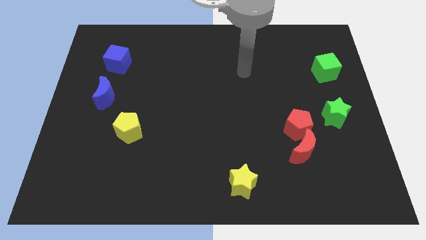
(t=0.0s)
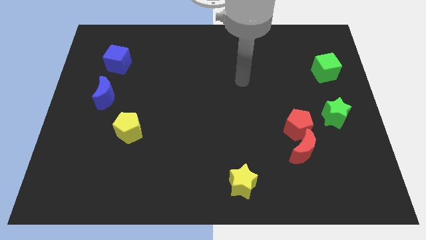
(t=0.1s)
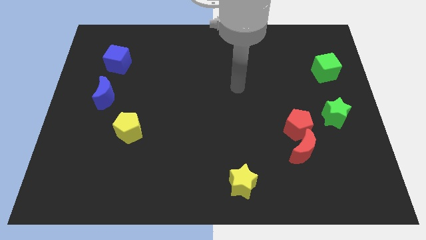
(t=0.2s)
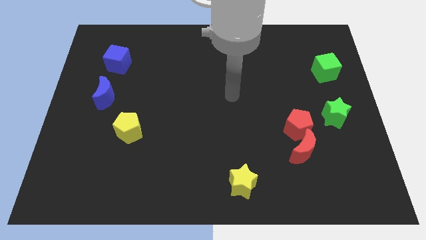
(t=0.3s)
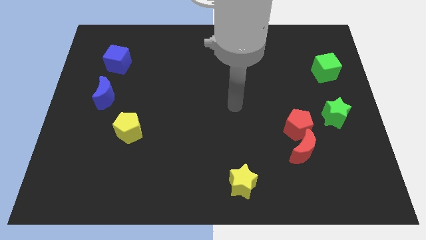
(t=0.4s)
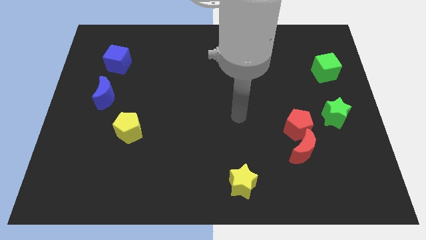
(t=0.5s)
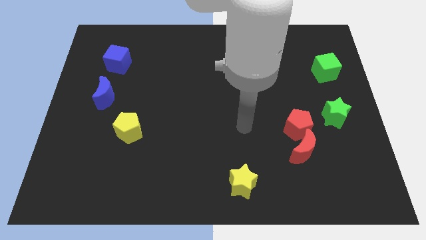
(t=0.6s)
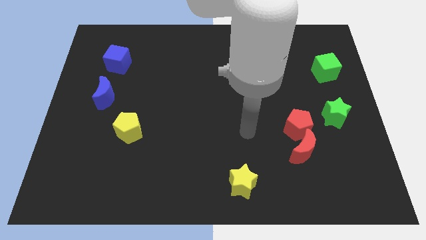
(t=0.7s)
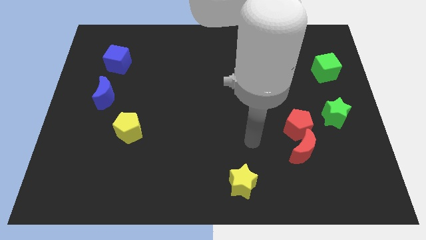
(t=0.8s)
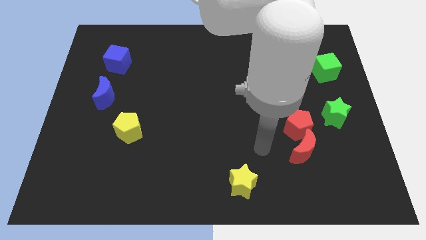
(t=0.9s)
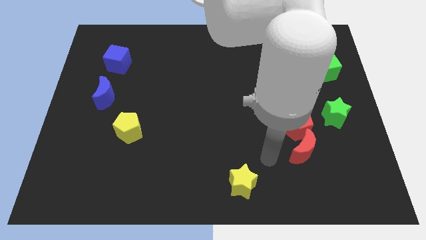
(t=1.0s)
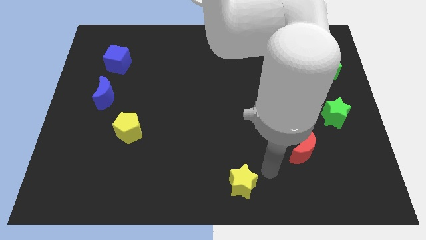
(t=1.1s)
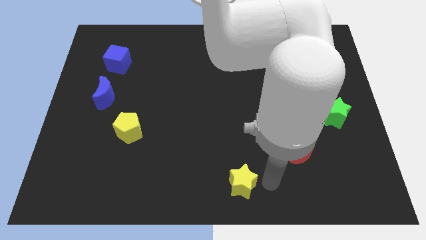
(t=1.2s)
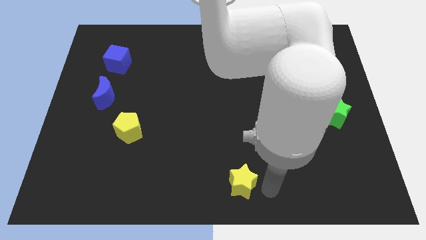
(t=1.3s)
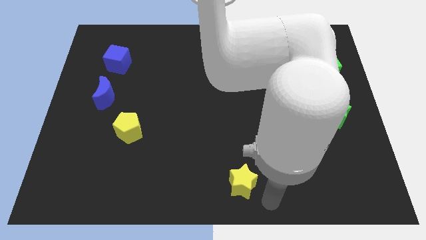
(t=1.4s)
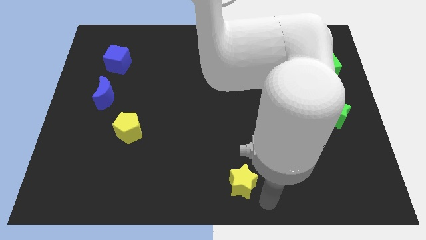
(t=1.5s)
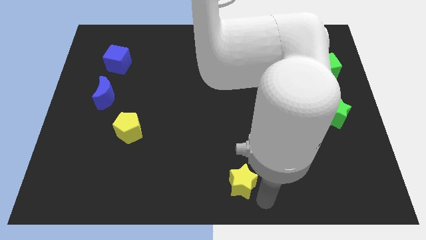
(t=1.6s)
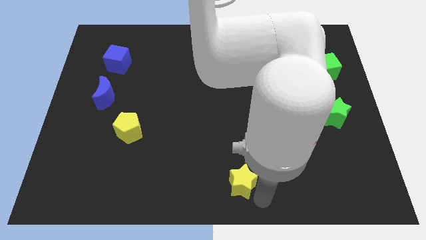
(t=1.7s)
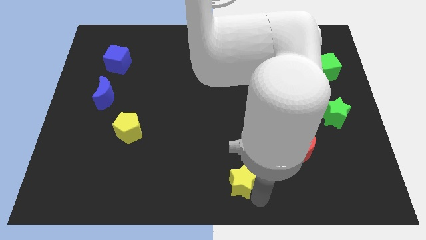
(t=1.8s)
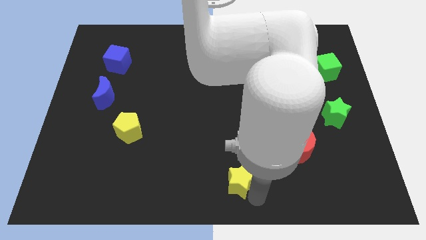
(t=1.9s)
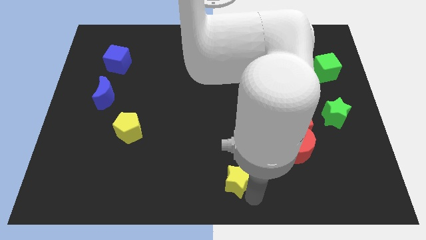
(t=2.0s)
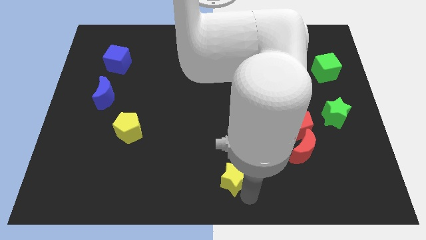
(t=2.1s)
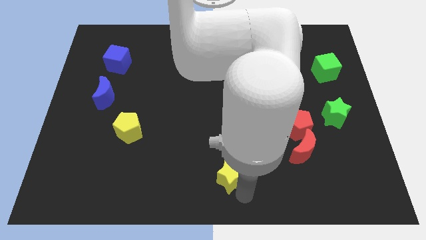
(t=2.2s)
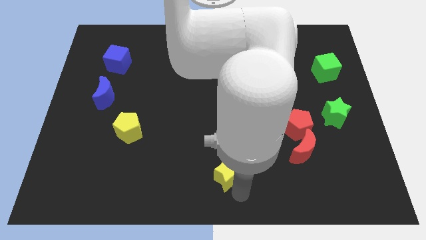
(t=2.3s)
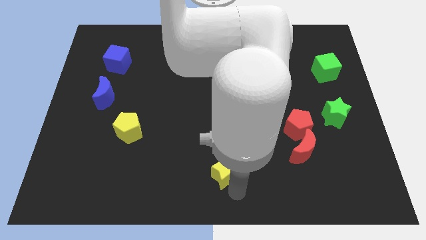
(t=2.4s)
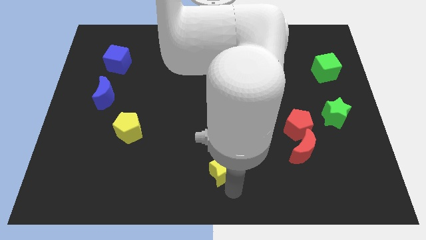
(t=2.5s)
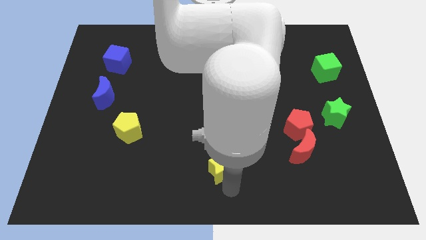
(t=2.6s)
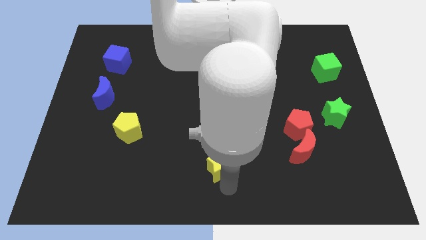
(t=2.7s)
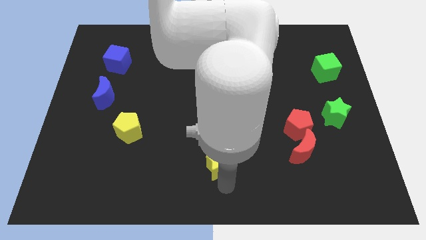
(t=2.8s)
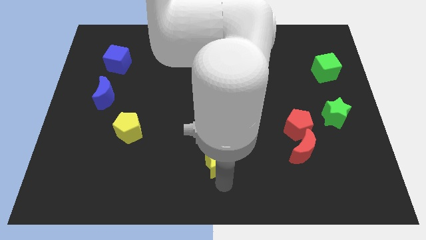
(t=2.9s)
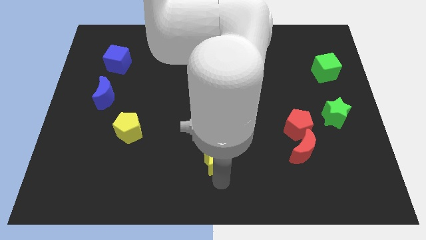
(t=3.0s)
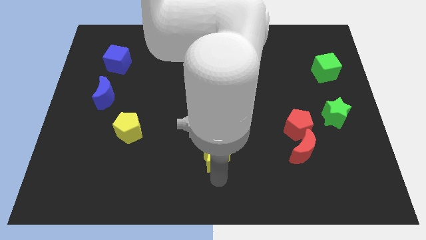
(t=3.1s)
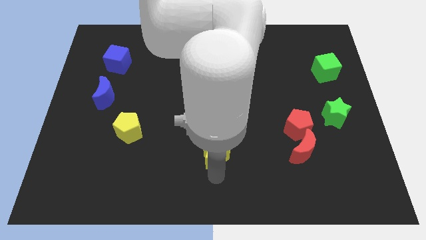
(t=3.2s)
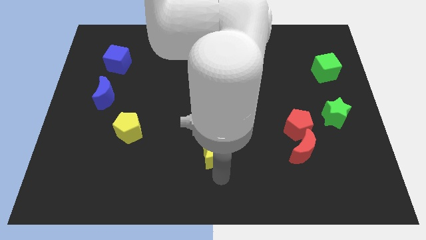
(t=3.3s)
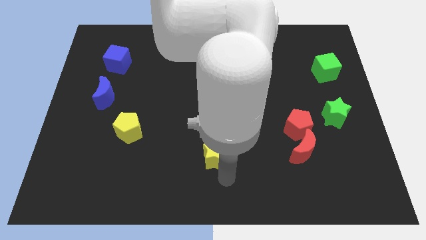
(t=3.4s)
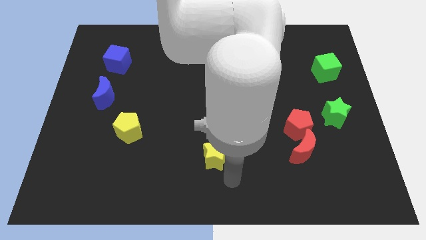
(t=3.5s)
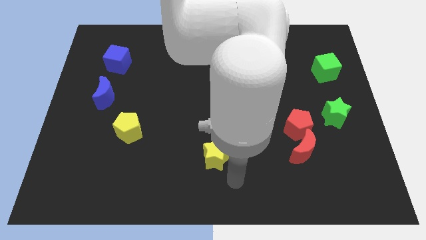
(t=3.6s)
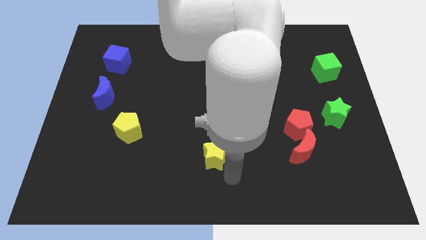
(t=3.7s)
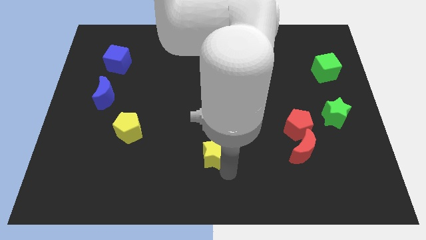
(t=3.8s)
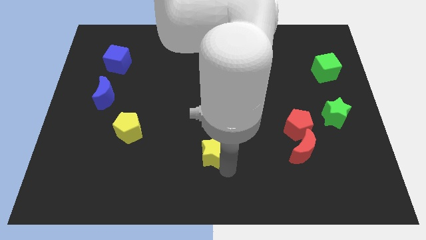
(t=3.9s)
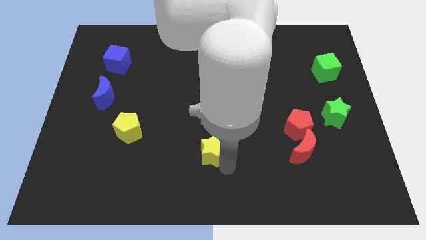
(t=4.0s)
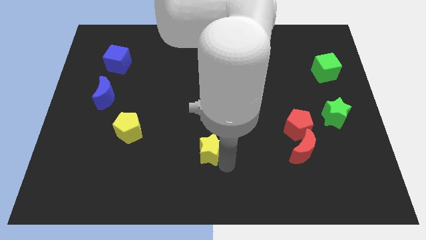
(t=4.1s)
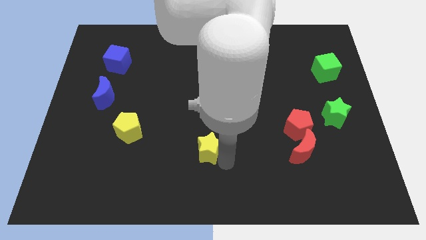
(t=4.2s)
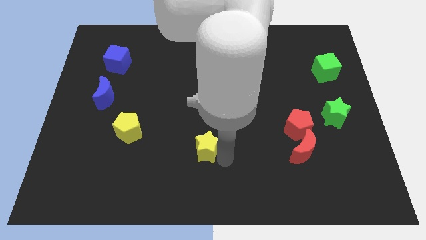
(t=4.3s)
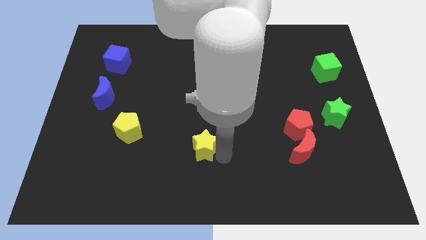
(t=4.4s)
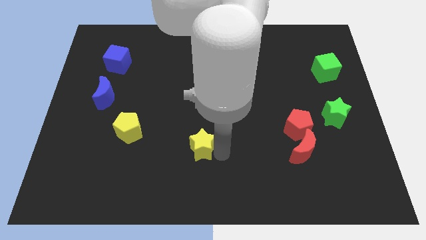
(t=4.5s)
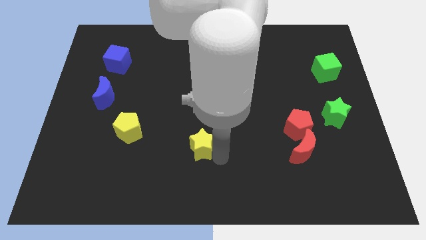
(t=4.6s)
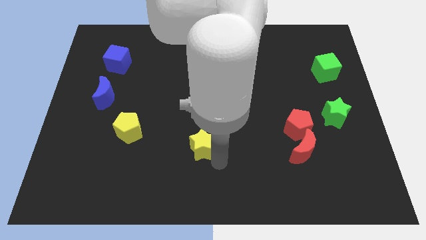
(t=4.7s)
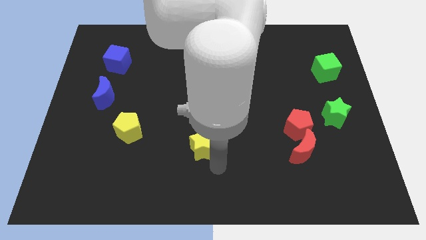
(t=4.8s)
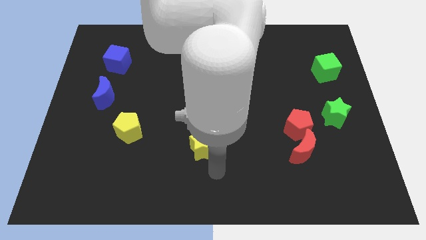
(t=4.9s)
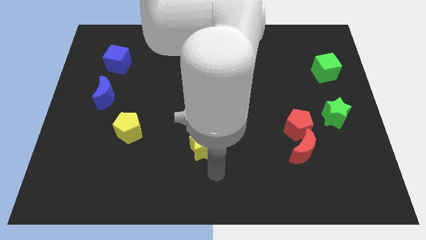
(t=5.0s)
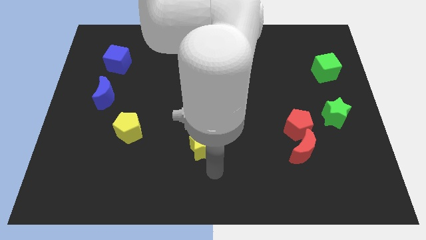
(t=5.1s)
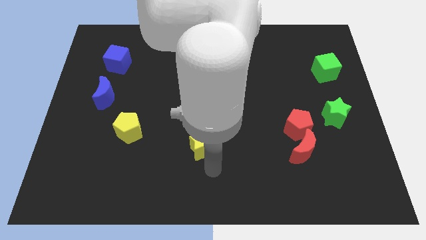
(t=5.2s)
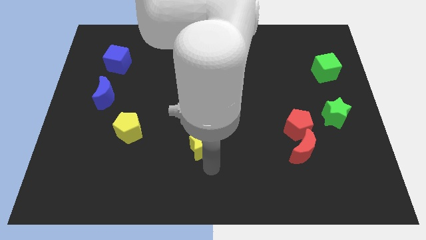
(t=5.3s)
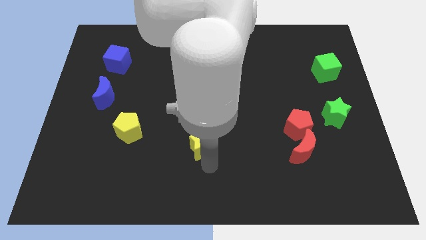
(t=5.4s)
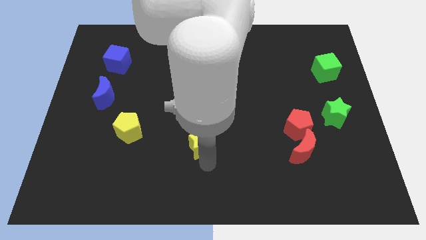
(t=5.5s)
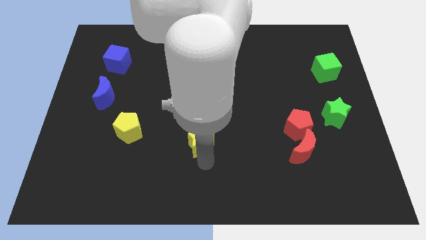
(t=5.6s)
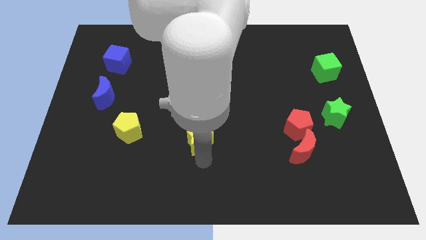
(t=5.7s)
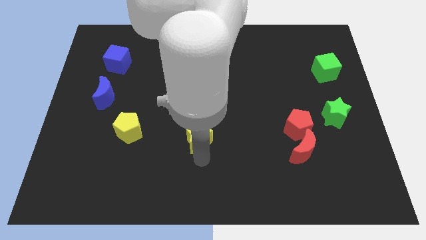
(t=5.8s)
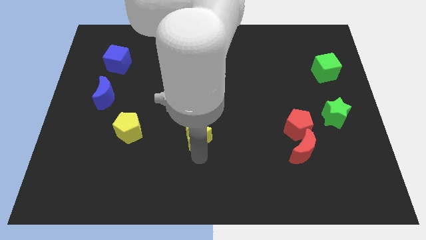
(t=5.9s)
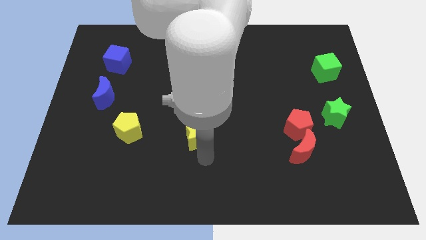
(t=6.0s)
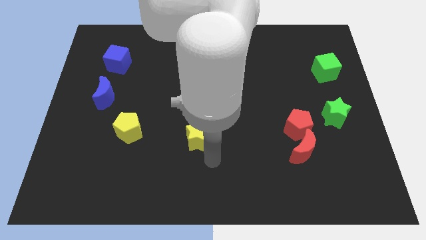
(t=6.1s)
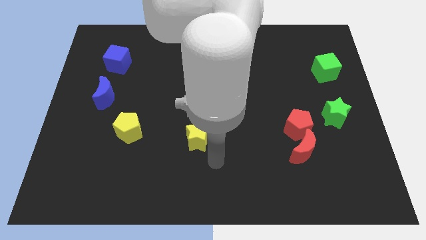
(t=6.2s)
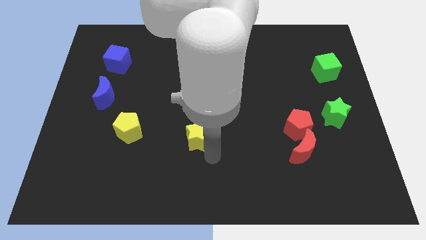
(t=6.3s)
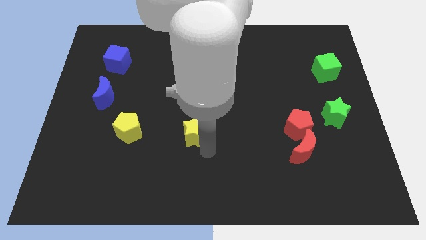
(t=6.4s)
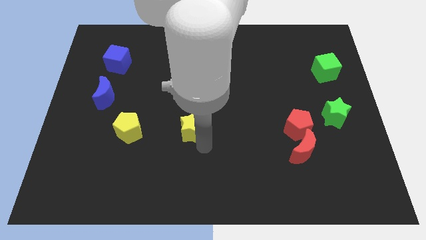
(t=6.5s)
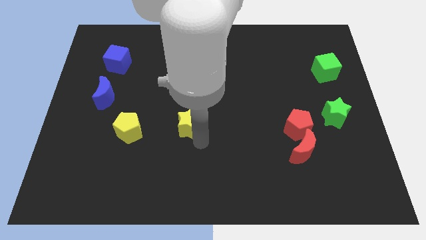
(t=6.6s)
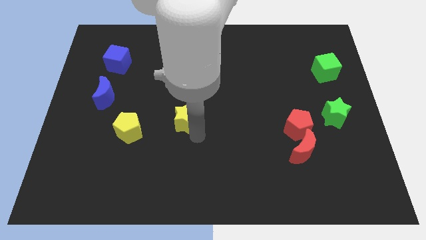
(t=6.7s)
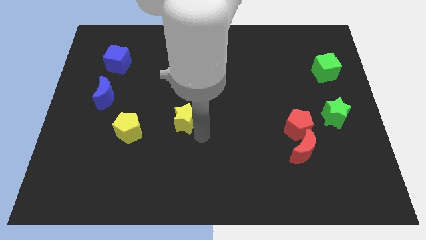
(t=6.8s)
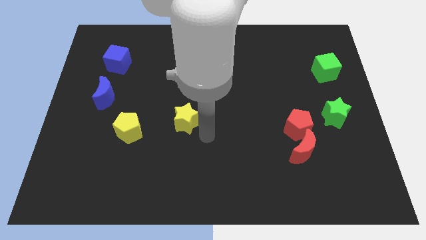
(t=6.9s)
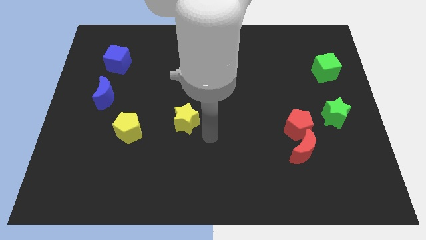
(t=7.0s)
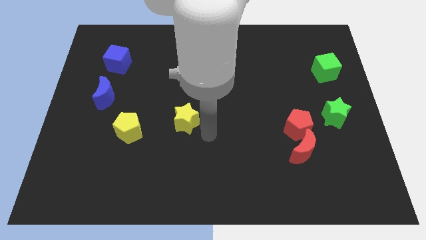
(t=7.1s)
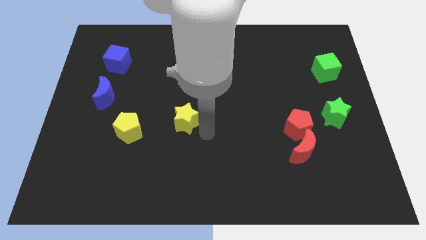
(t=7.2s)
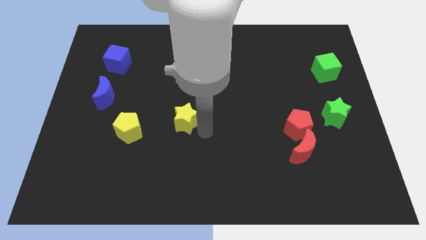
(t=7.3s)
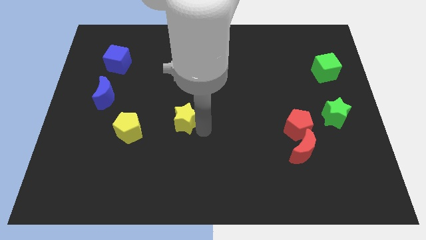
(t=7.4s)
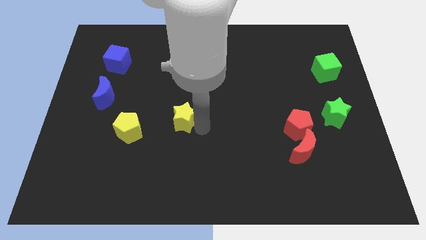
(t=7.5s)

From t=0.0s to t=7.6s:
slide the yellow star upwards and left diagonally

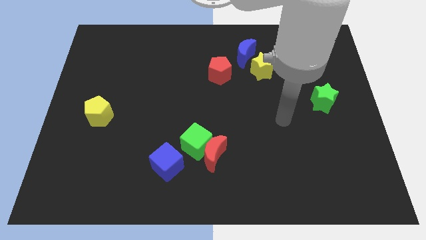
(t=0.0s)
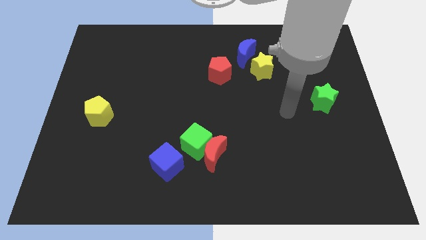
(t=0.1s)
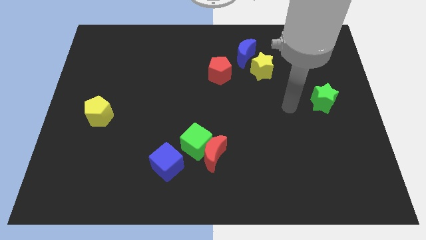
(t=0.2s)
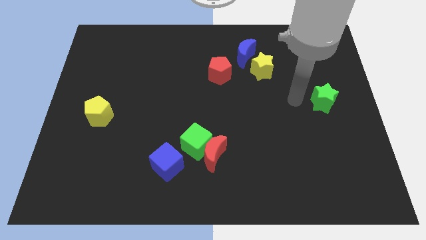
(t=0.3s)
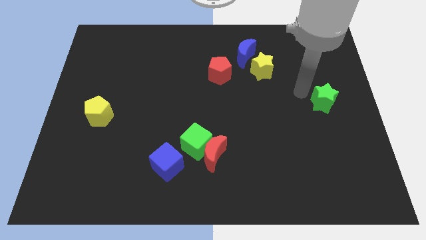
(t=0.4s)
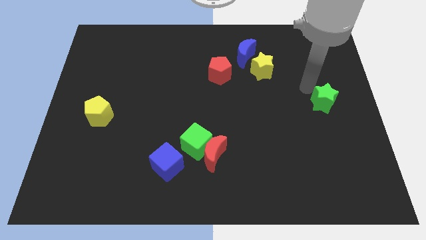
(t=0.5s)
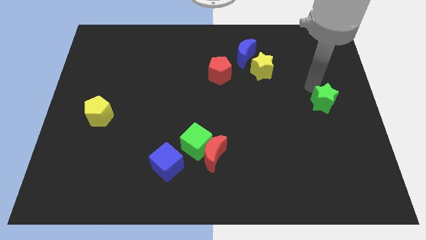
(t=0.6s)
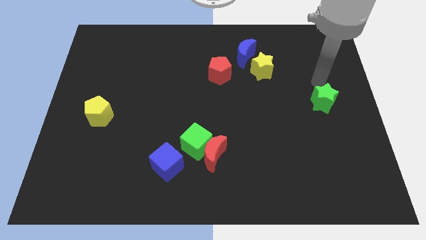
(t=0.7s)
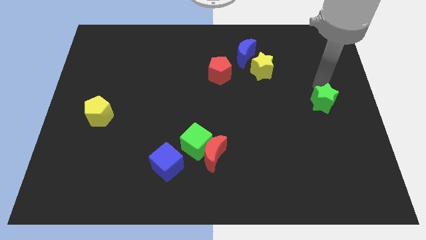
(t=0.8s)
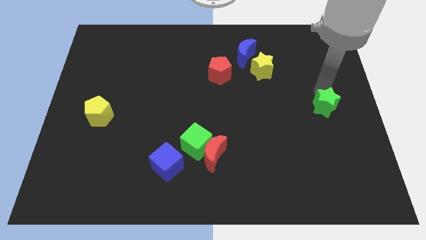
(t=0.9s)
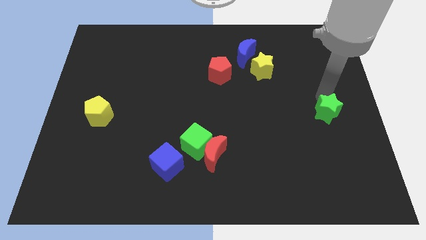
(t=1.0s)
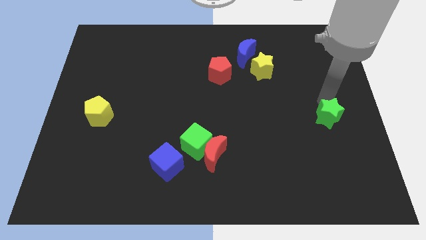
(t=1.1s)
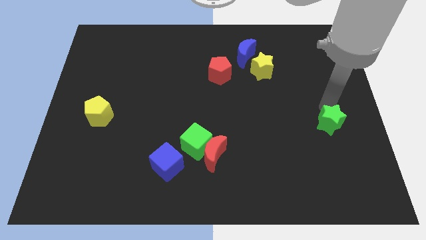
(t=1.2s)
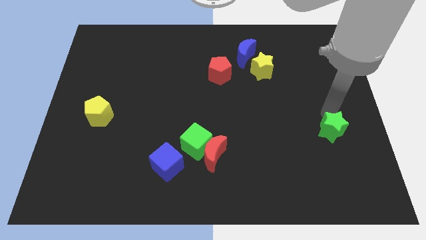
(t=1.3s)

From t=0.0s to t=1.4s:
slightly move the green star down
